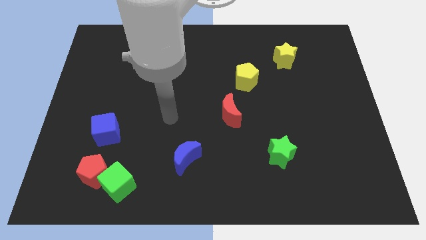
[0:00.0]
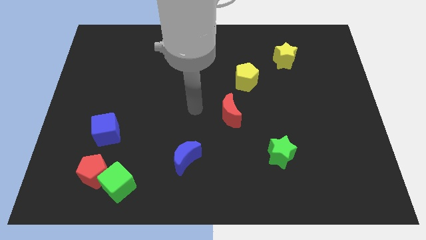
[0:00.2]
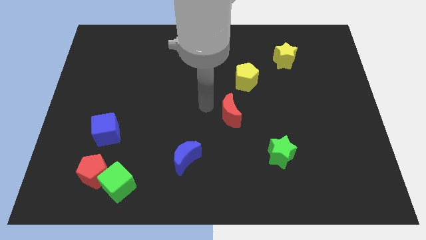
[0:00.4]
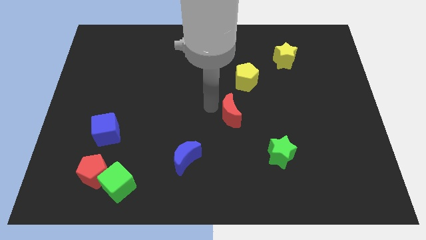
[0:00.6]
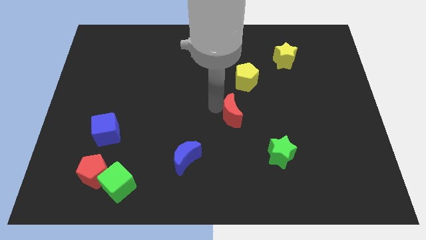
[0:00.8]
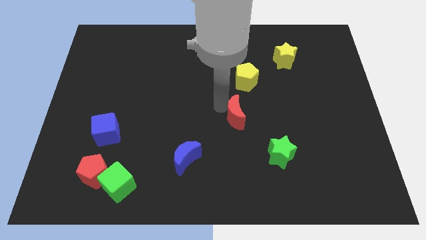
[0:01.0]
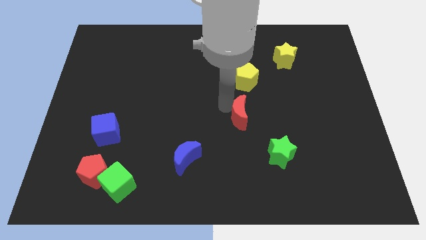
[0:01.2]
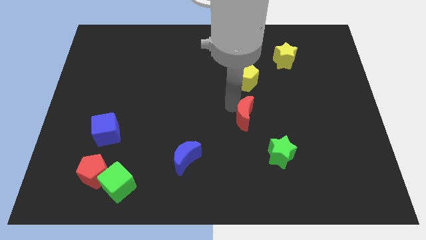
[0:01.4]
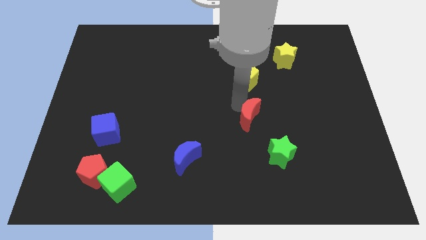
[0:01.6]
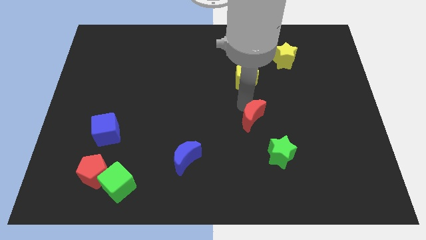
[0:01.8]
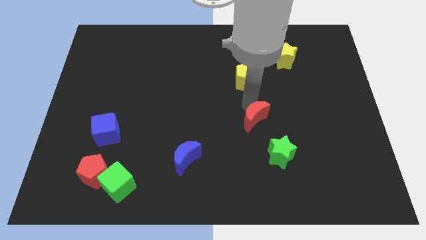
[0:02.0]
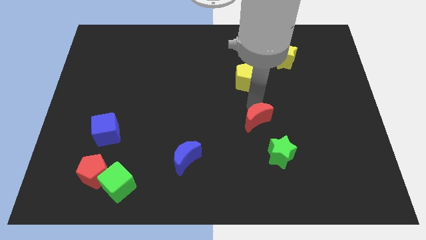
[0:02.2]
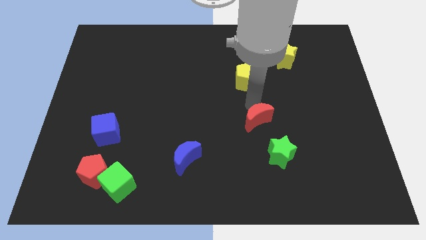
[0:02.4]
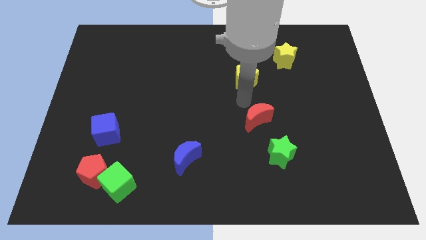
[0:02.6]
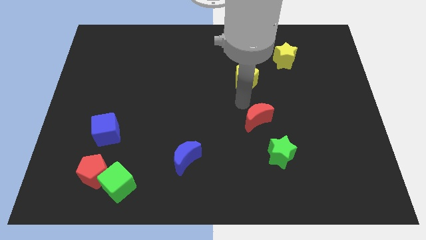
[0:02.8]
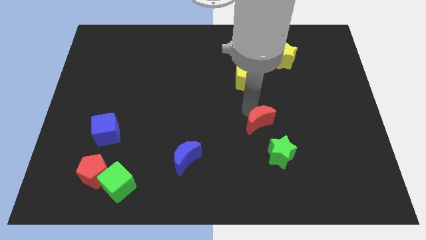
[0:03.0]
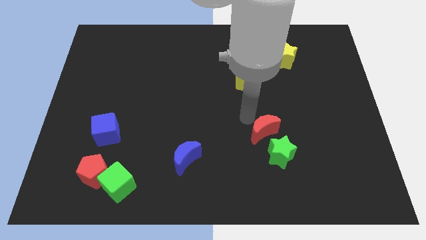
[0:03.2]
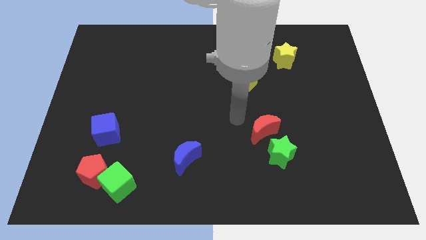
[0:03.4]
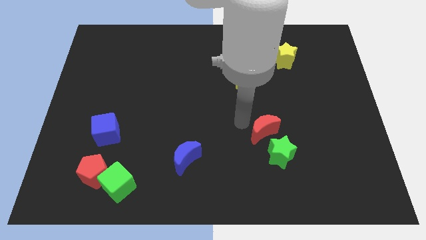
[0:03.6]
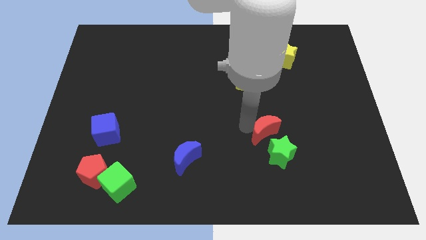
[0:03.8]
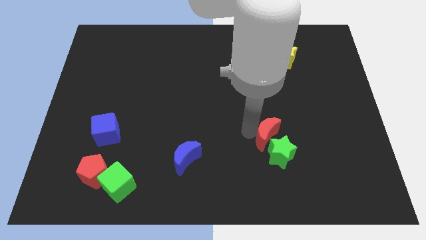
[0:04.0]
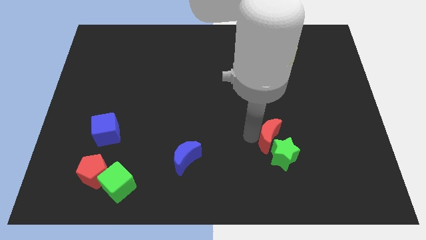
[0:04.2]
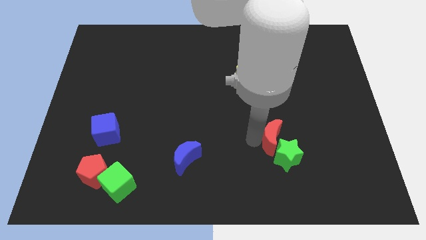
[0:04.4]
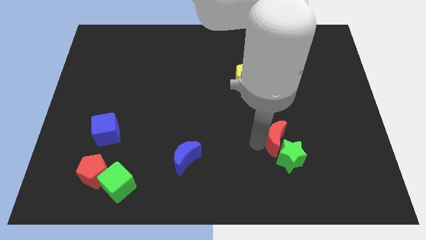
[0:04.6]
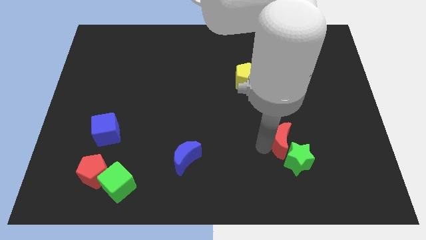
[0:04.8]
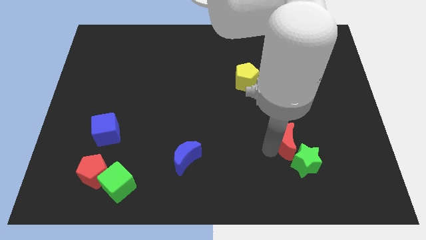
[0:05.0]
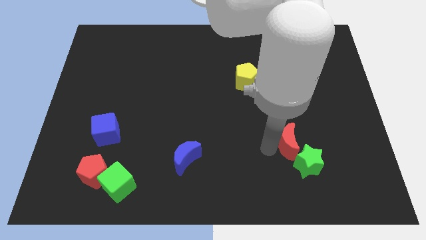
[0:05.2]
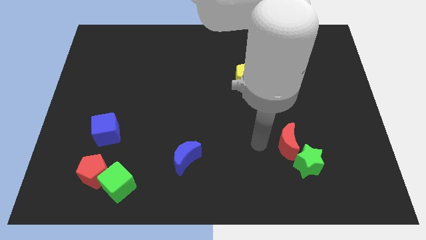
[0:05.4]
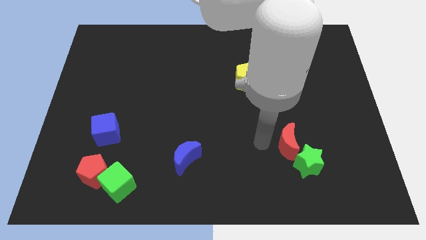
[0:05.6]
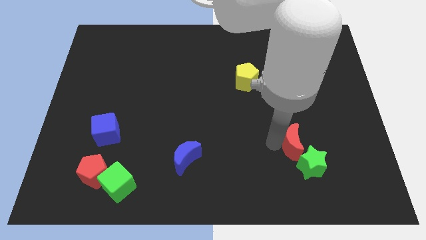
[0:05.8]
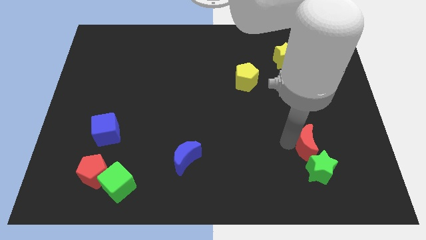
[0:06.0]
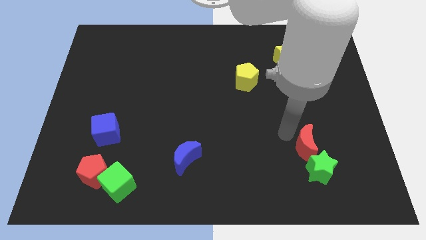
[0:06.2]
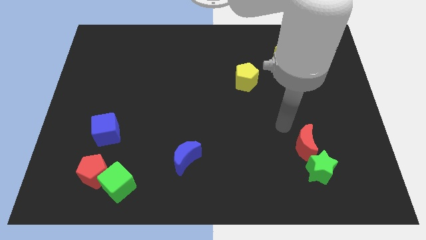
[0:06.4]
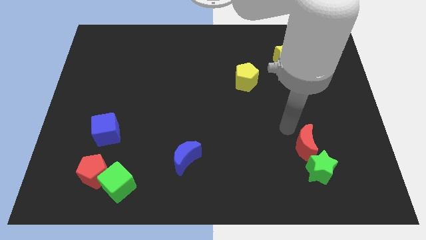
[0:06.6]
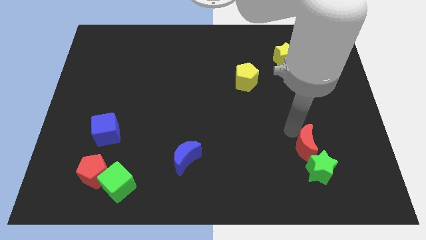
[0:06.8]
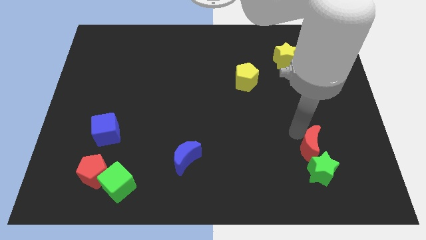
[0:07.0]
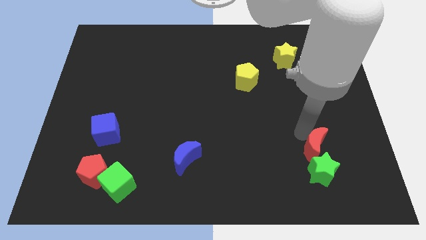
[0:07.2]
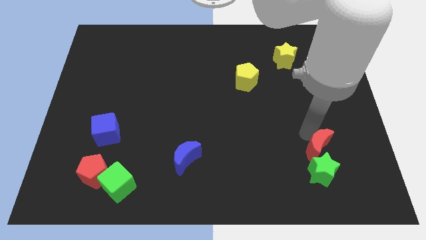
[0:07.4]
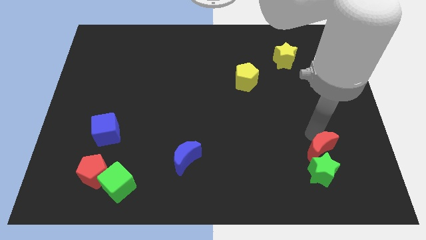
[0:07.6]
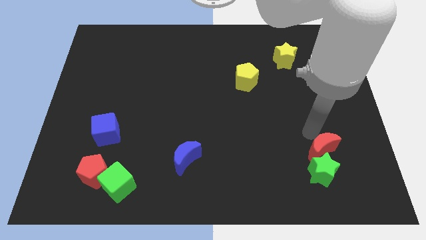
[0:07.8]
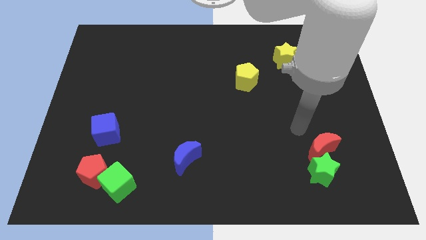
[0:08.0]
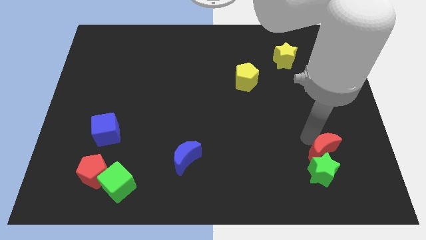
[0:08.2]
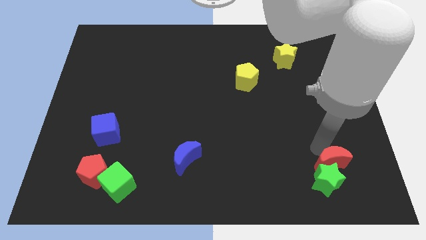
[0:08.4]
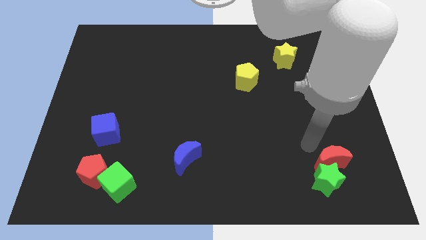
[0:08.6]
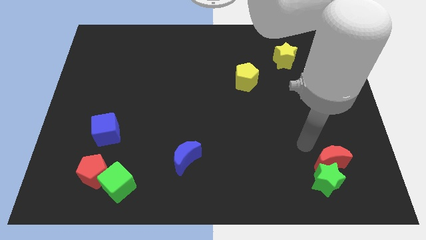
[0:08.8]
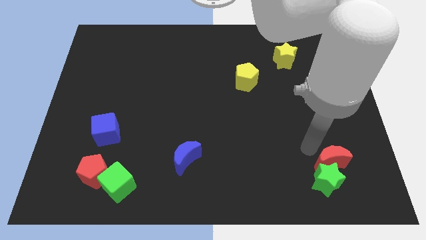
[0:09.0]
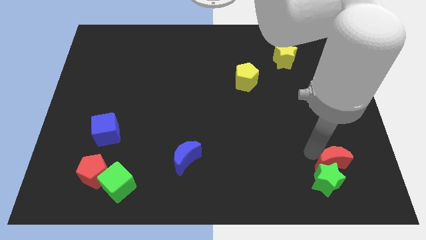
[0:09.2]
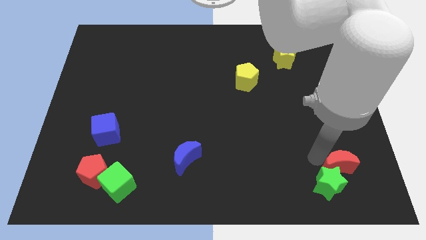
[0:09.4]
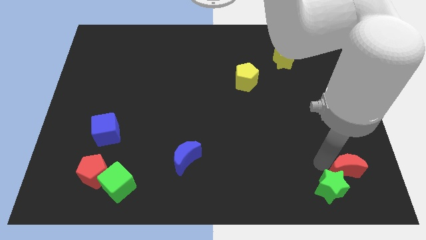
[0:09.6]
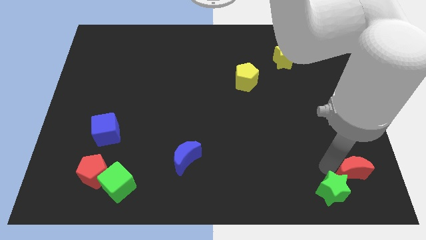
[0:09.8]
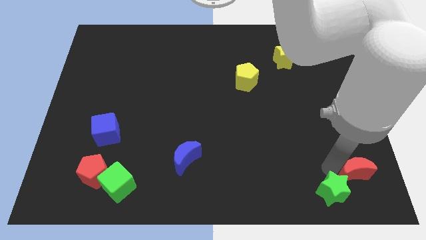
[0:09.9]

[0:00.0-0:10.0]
push the red moon to the lower right corner

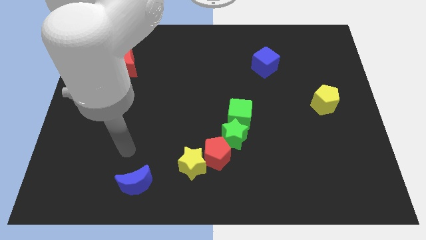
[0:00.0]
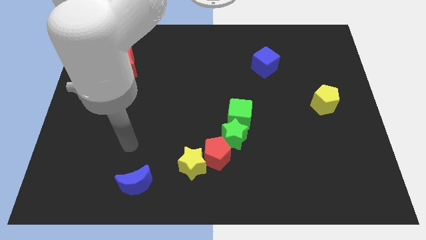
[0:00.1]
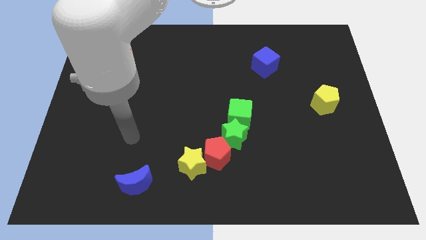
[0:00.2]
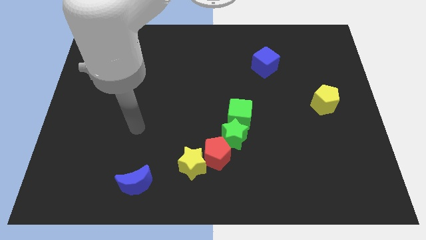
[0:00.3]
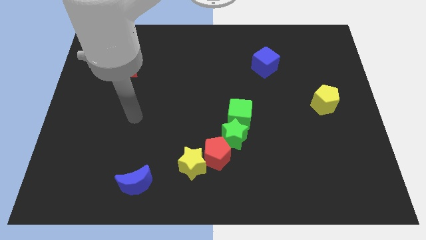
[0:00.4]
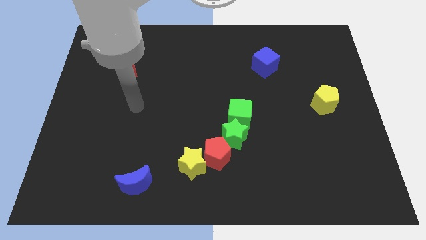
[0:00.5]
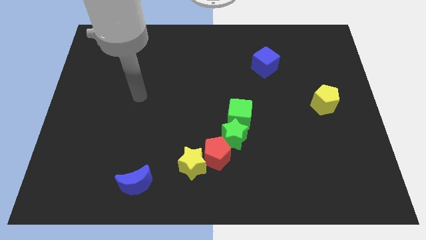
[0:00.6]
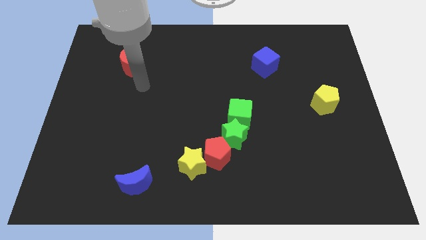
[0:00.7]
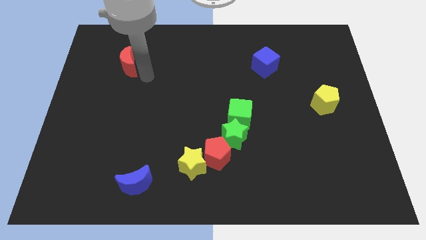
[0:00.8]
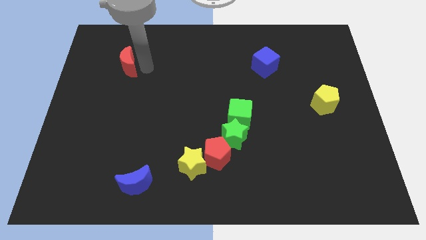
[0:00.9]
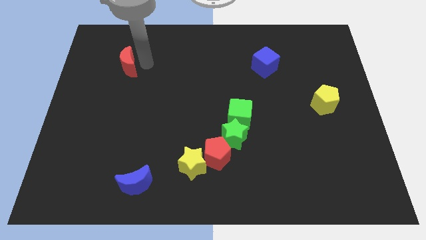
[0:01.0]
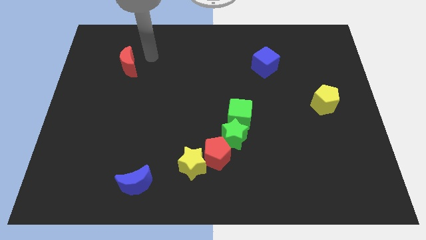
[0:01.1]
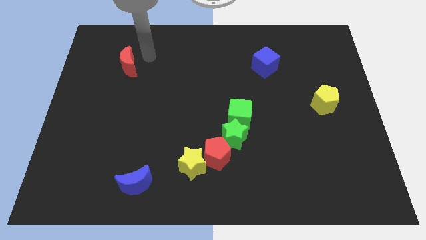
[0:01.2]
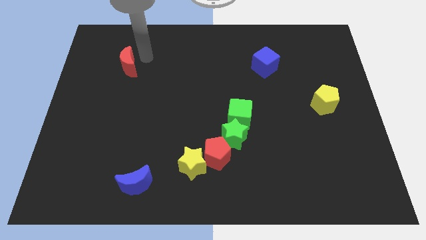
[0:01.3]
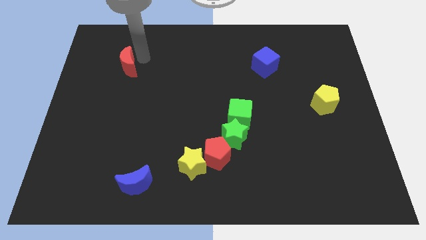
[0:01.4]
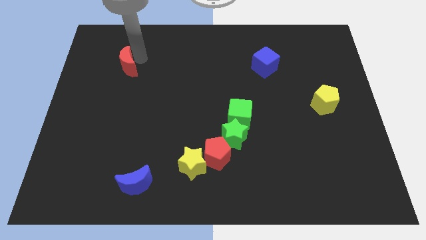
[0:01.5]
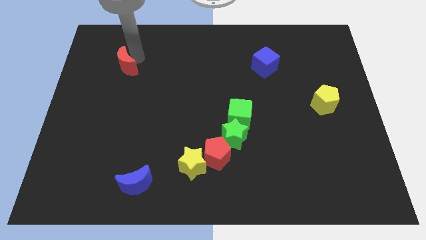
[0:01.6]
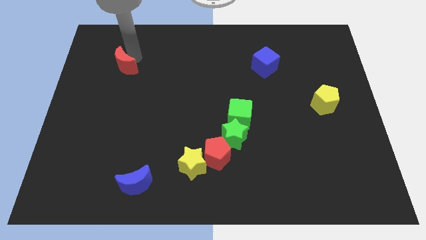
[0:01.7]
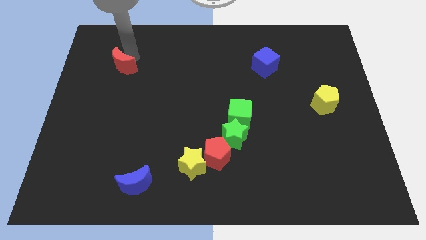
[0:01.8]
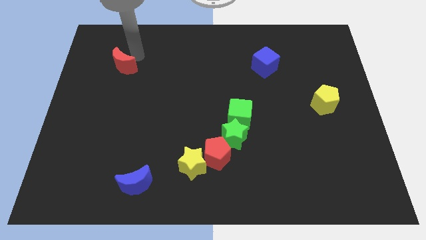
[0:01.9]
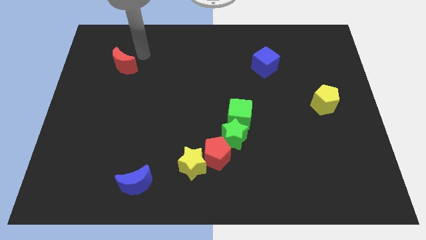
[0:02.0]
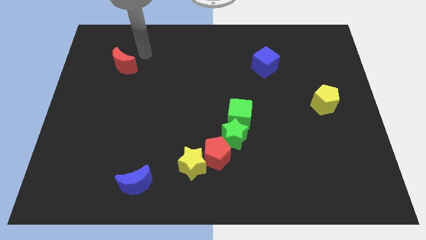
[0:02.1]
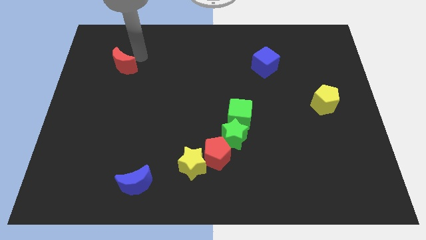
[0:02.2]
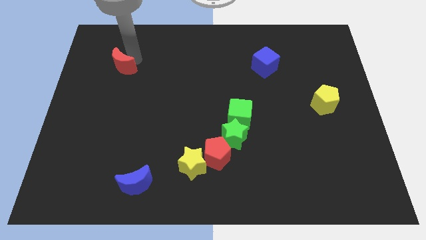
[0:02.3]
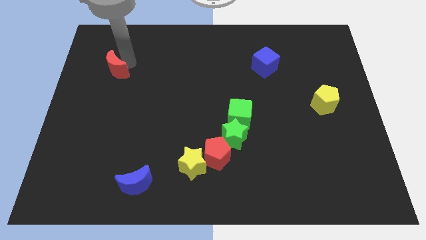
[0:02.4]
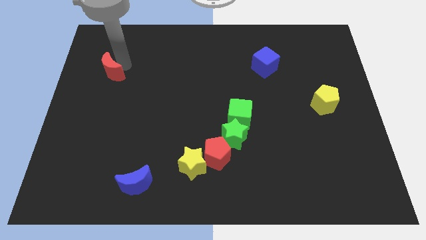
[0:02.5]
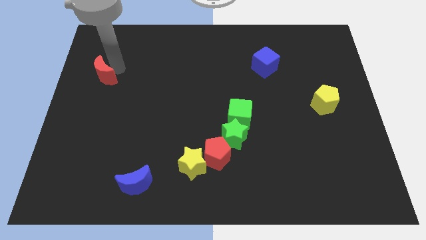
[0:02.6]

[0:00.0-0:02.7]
put the red moon to the left side of the board
